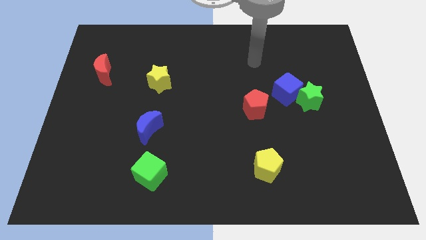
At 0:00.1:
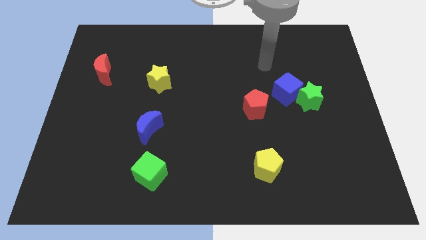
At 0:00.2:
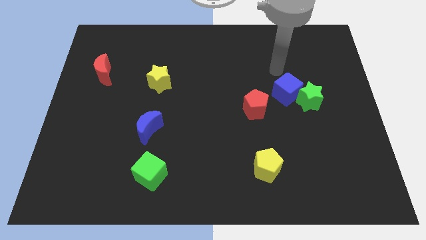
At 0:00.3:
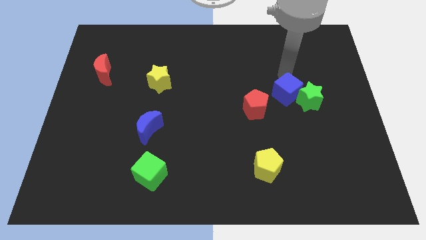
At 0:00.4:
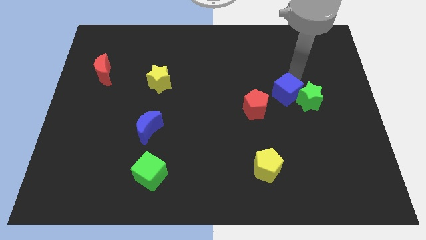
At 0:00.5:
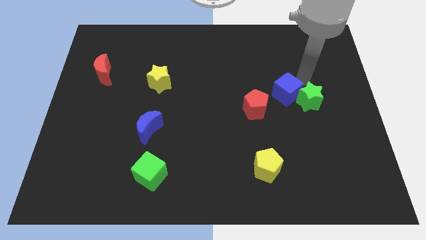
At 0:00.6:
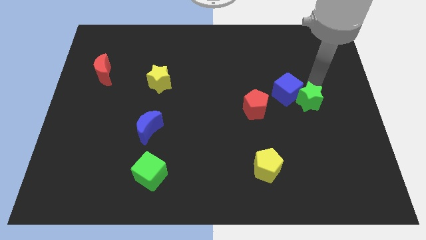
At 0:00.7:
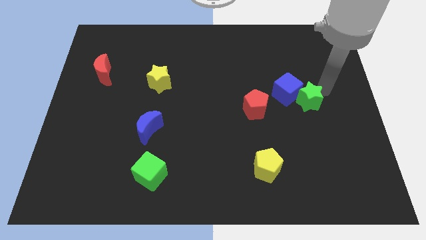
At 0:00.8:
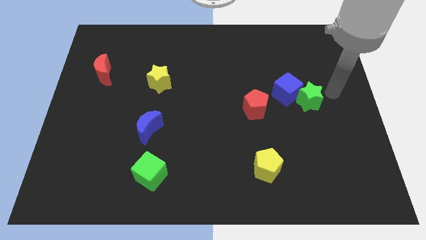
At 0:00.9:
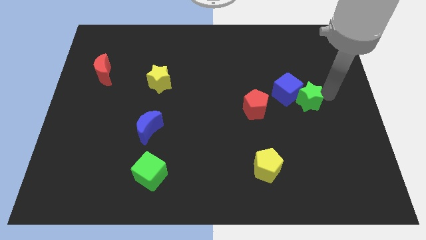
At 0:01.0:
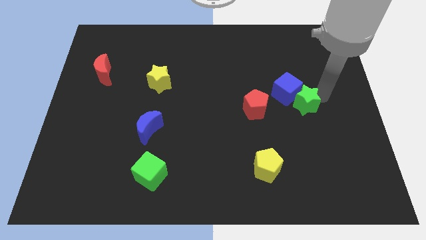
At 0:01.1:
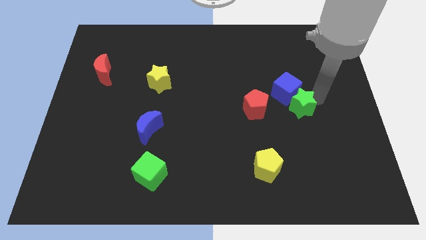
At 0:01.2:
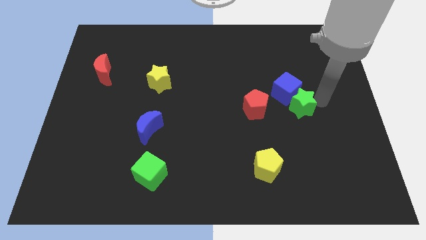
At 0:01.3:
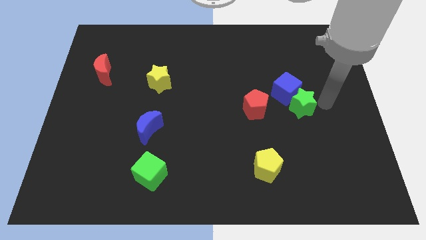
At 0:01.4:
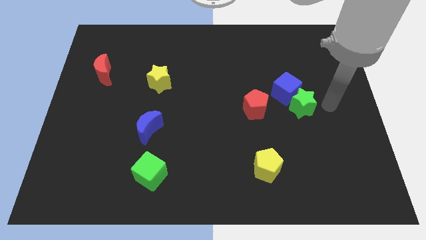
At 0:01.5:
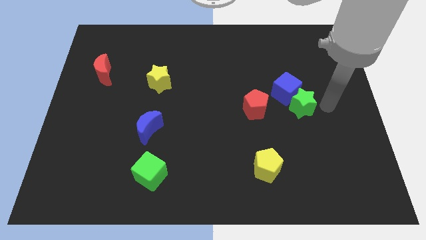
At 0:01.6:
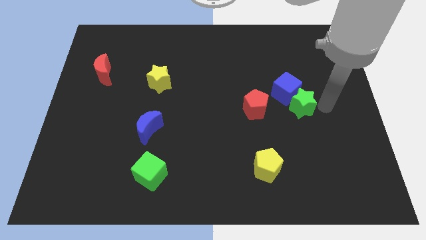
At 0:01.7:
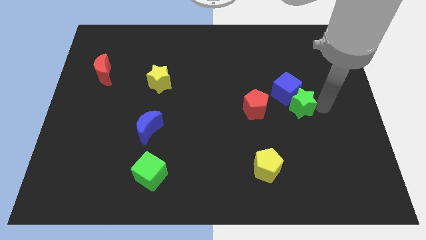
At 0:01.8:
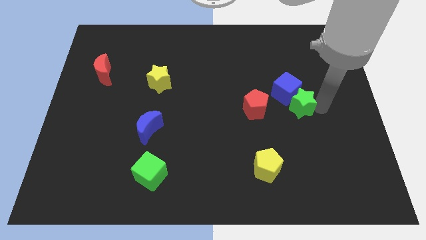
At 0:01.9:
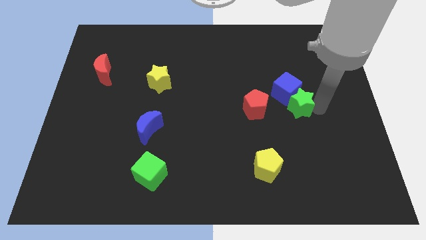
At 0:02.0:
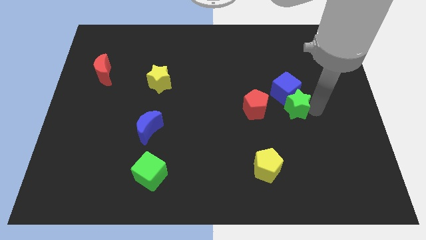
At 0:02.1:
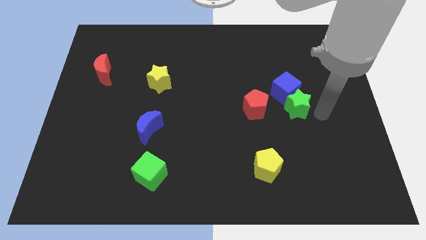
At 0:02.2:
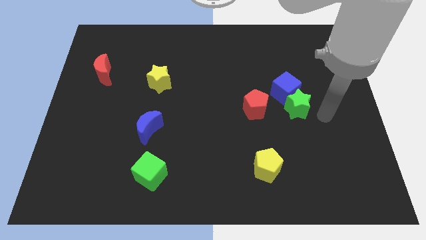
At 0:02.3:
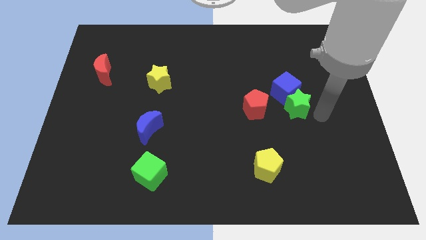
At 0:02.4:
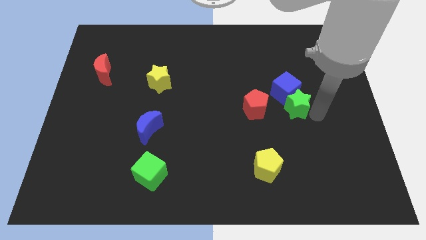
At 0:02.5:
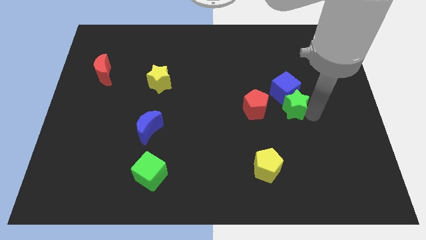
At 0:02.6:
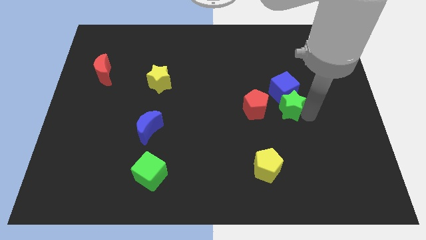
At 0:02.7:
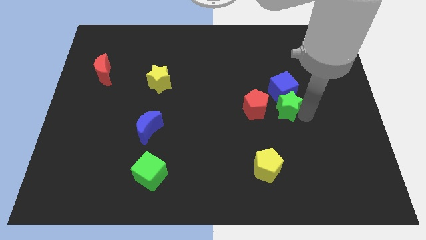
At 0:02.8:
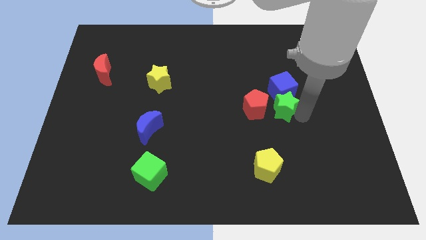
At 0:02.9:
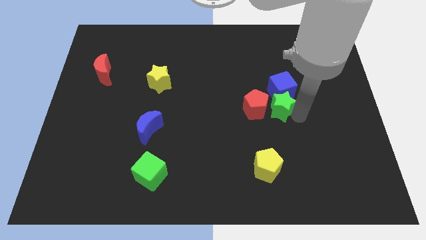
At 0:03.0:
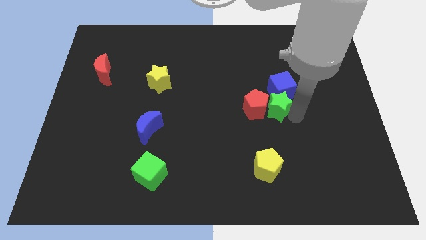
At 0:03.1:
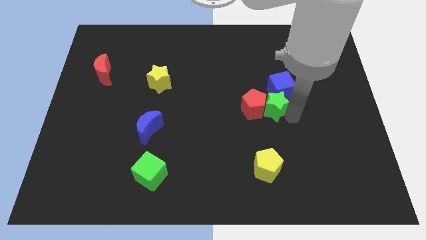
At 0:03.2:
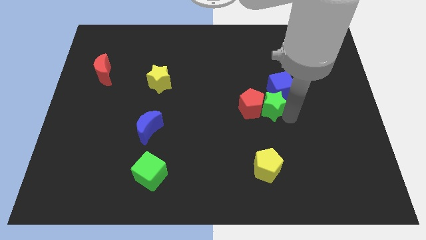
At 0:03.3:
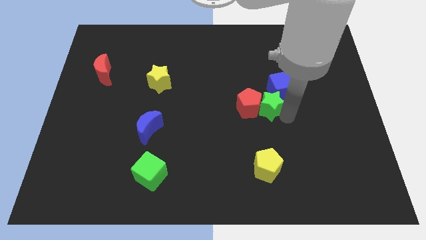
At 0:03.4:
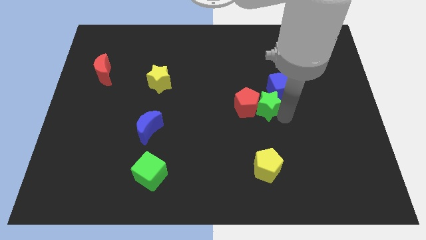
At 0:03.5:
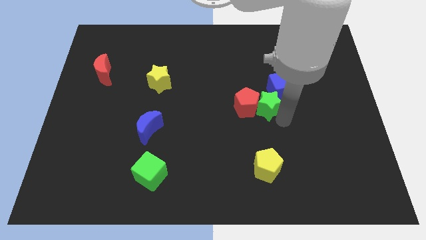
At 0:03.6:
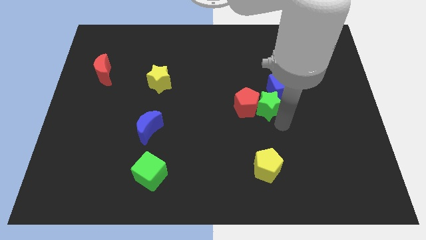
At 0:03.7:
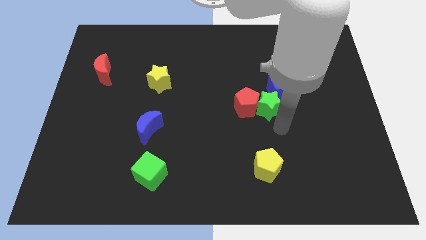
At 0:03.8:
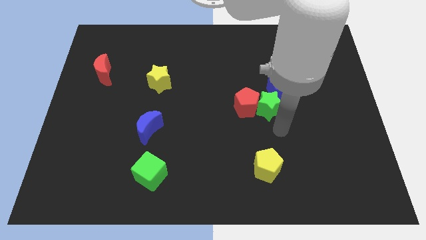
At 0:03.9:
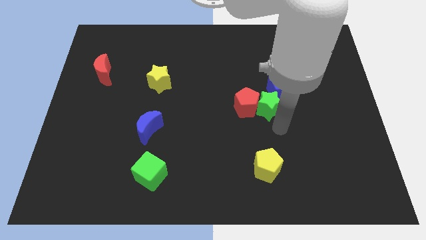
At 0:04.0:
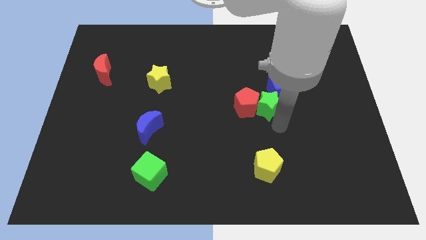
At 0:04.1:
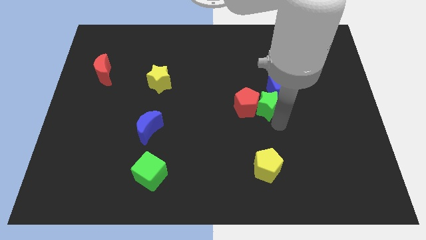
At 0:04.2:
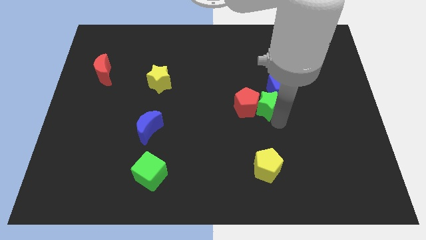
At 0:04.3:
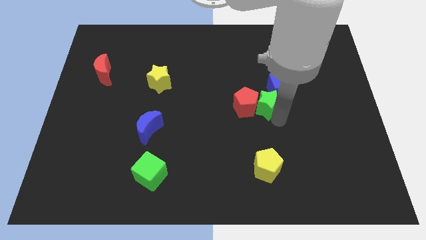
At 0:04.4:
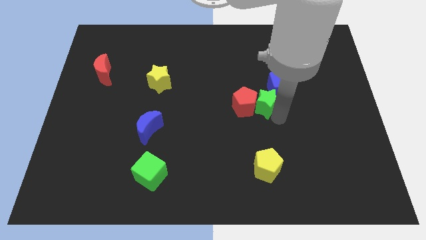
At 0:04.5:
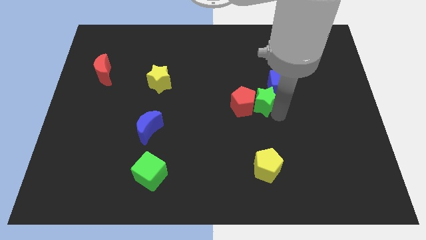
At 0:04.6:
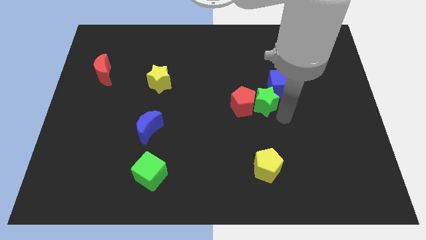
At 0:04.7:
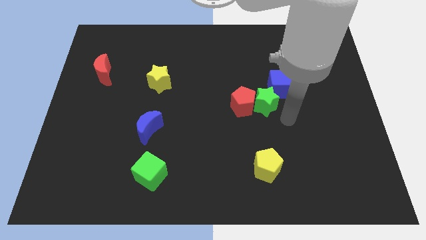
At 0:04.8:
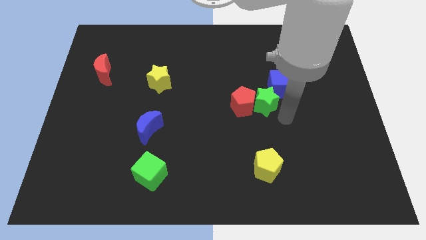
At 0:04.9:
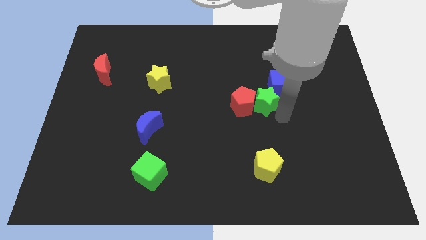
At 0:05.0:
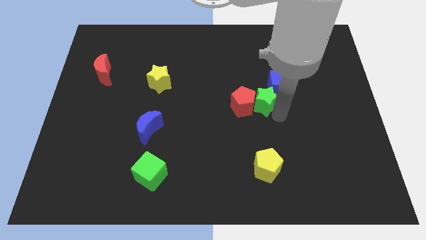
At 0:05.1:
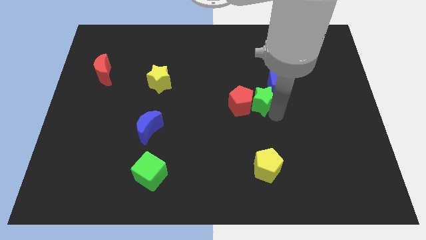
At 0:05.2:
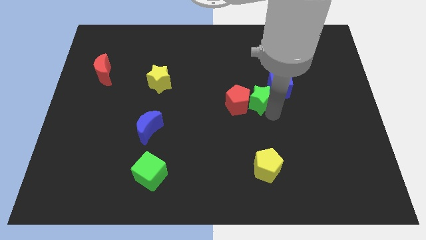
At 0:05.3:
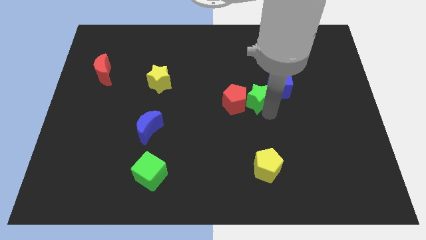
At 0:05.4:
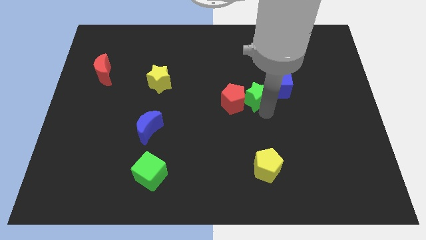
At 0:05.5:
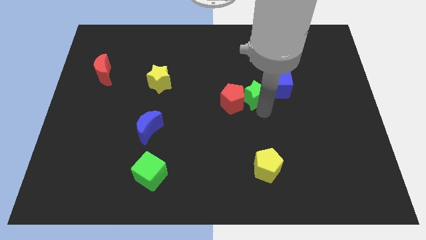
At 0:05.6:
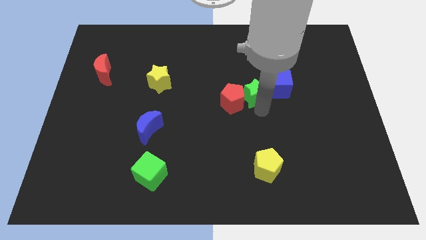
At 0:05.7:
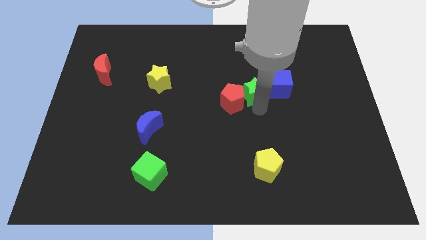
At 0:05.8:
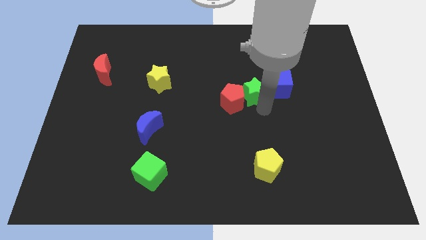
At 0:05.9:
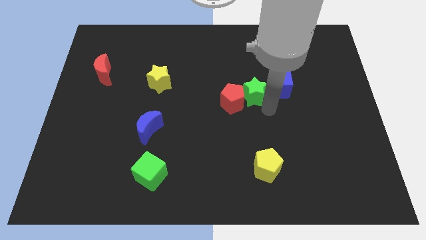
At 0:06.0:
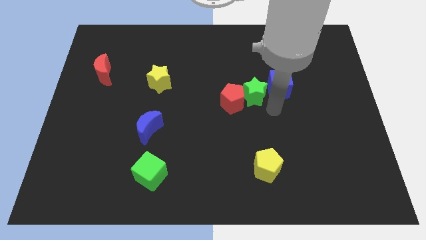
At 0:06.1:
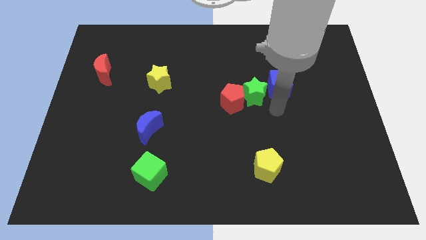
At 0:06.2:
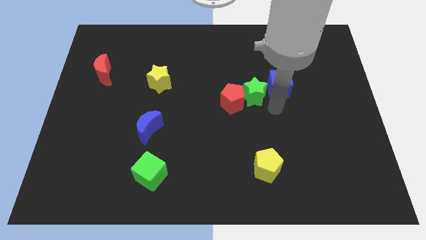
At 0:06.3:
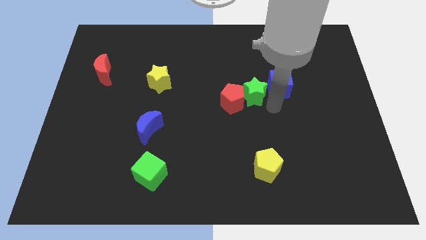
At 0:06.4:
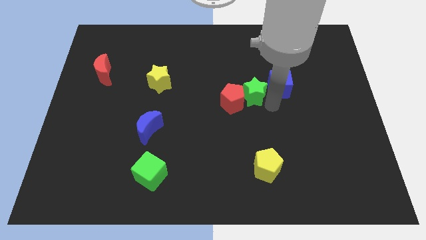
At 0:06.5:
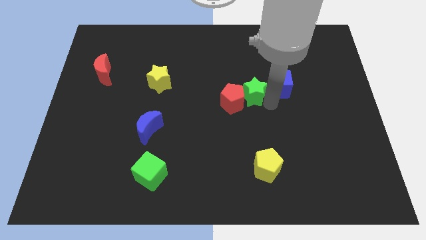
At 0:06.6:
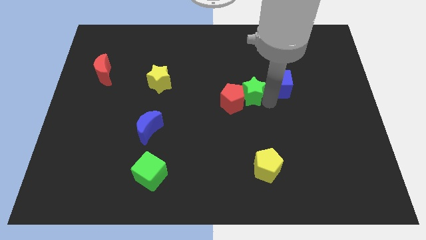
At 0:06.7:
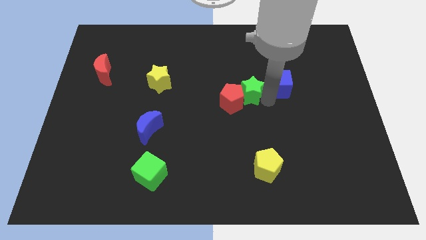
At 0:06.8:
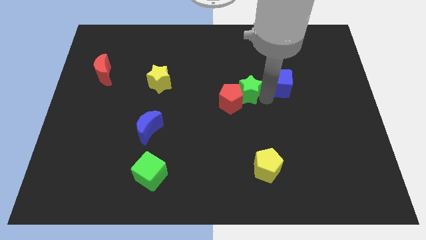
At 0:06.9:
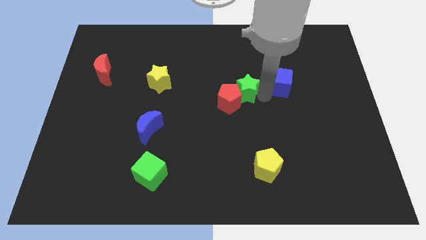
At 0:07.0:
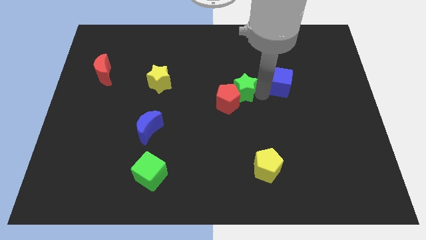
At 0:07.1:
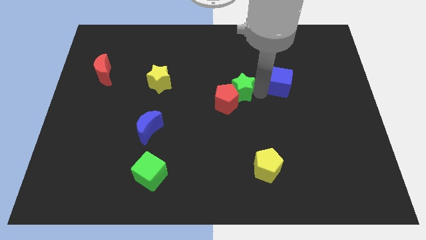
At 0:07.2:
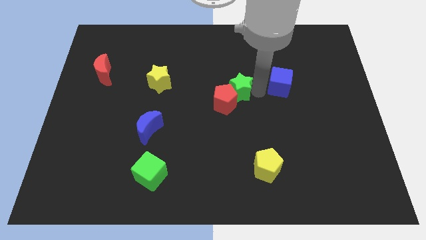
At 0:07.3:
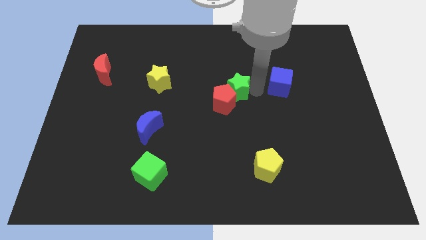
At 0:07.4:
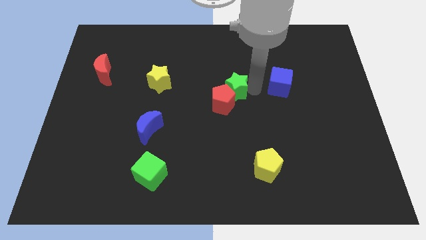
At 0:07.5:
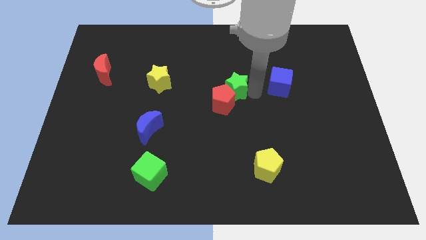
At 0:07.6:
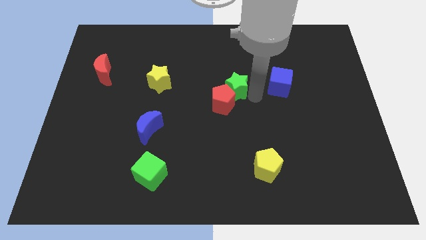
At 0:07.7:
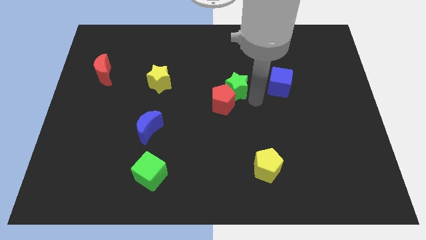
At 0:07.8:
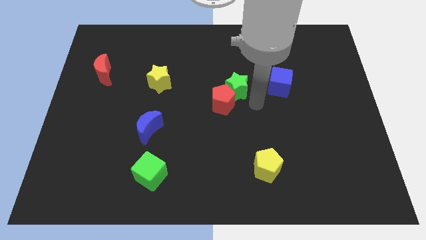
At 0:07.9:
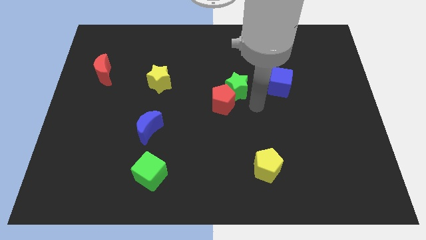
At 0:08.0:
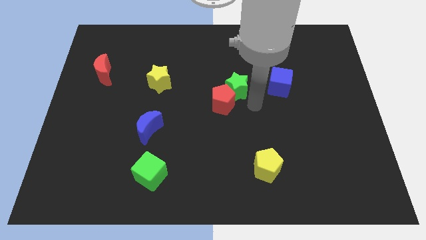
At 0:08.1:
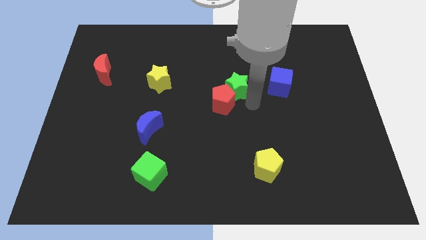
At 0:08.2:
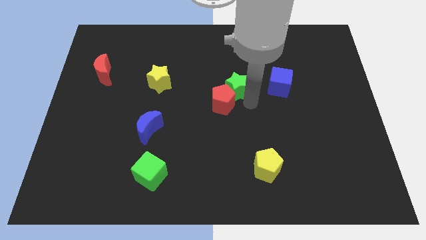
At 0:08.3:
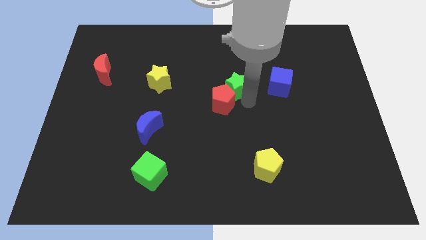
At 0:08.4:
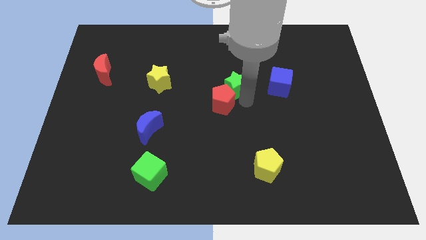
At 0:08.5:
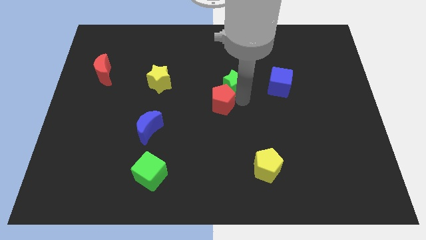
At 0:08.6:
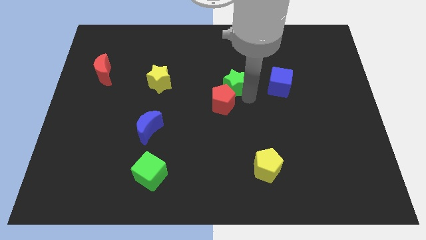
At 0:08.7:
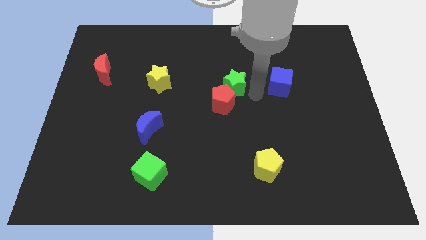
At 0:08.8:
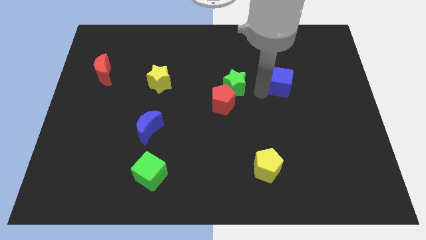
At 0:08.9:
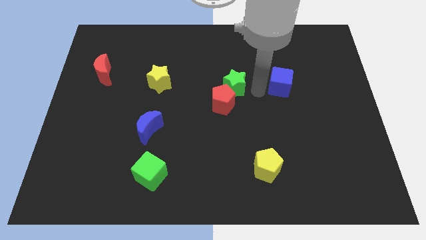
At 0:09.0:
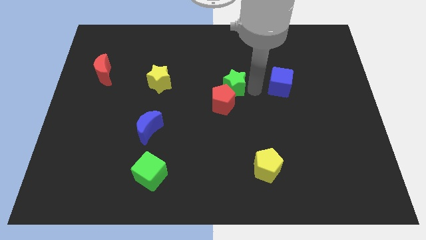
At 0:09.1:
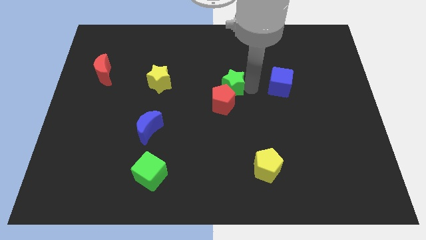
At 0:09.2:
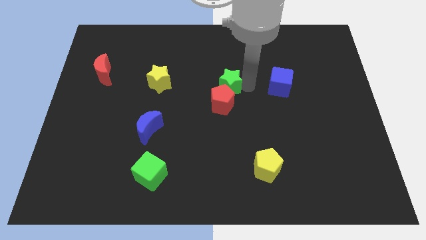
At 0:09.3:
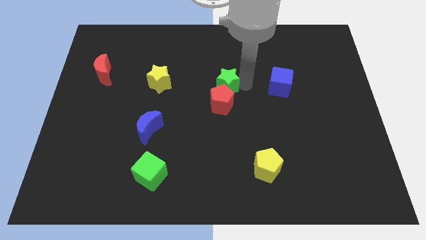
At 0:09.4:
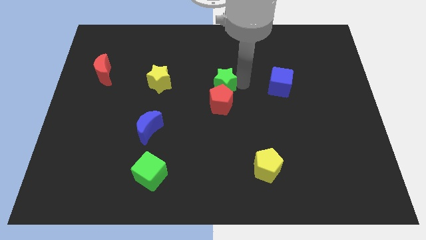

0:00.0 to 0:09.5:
slide the green star to the right side of the yellow star
